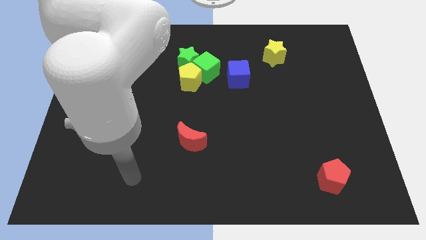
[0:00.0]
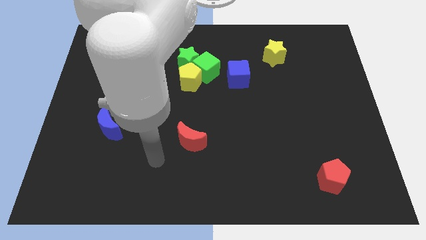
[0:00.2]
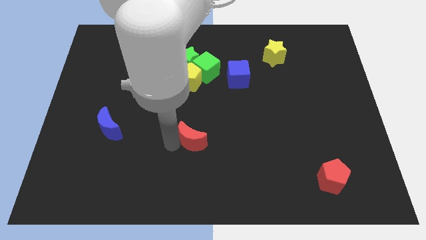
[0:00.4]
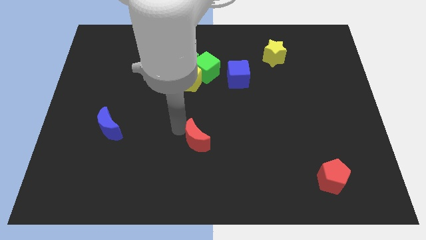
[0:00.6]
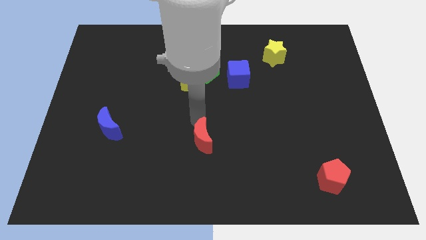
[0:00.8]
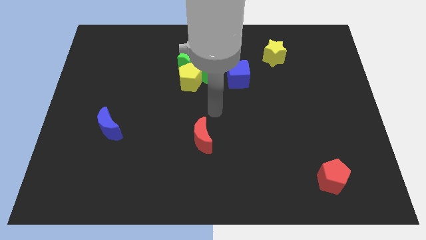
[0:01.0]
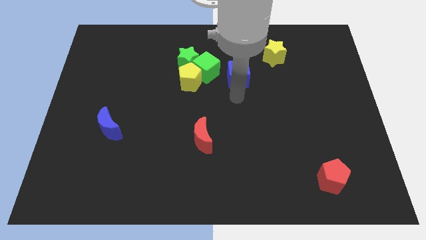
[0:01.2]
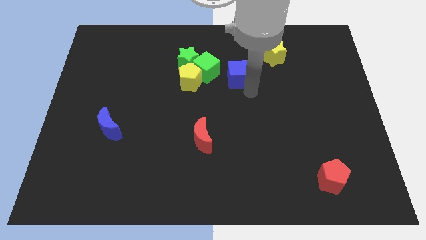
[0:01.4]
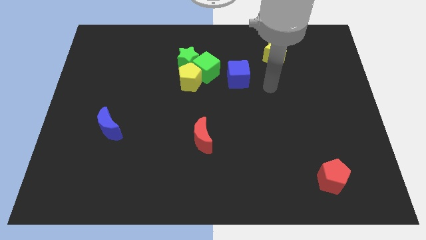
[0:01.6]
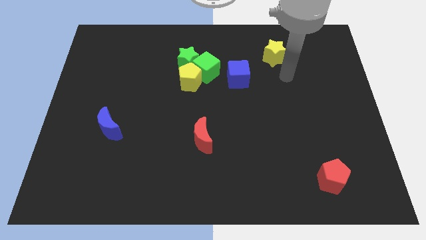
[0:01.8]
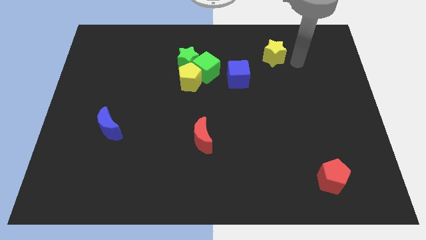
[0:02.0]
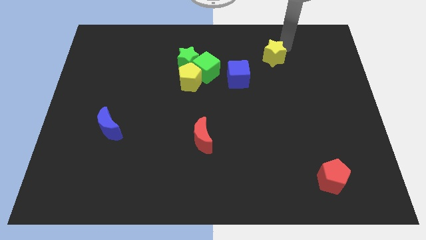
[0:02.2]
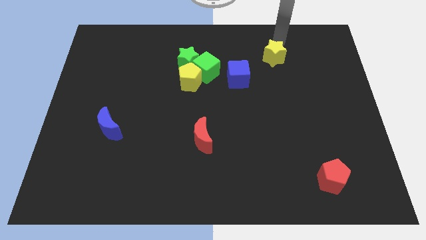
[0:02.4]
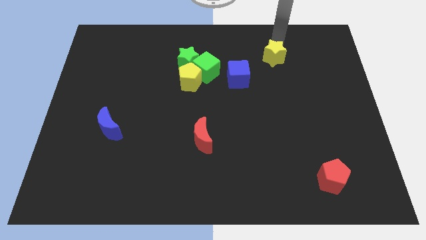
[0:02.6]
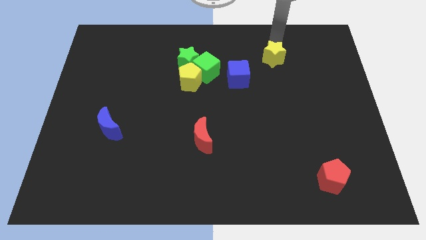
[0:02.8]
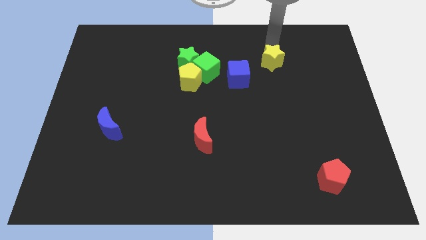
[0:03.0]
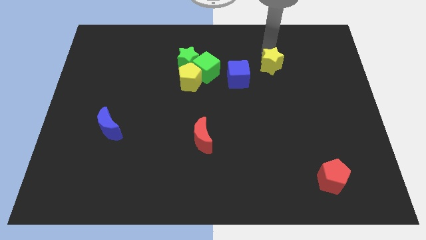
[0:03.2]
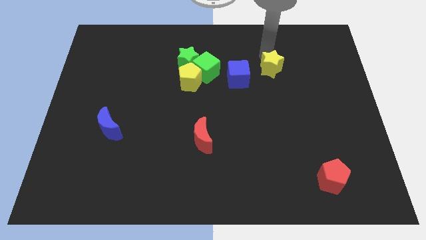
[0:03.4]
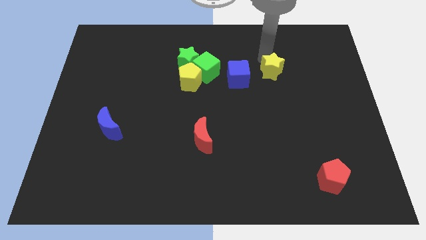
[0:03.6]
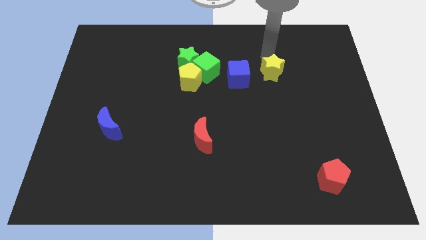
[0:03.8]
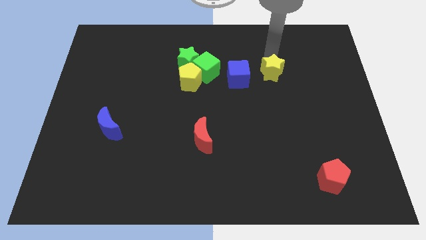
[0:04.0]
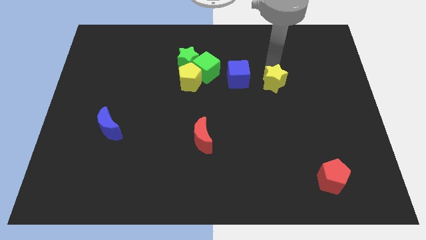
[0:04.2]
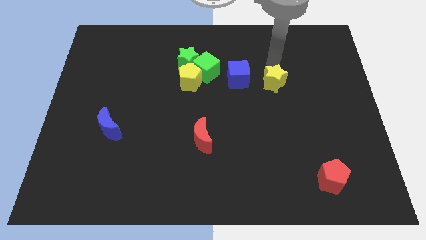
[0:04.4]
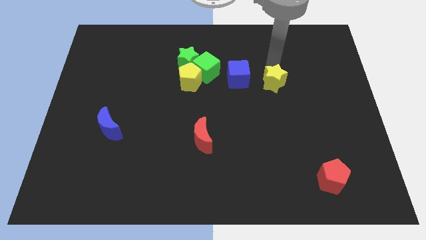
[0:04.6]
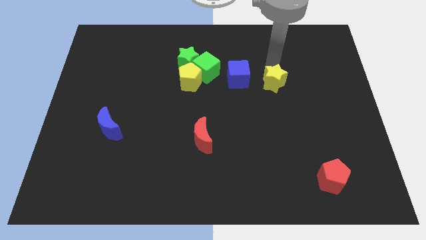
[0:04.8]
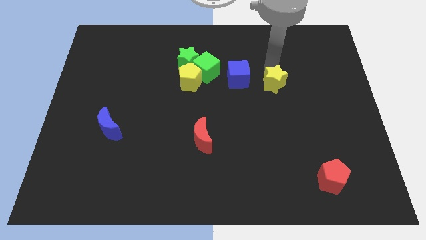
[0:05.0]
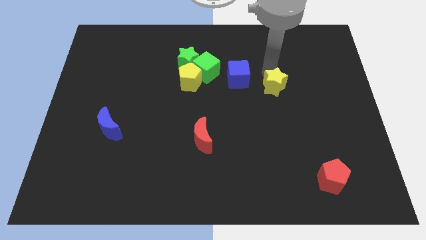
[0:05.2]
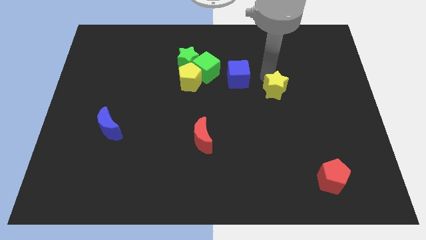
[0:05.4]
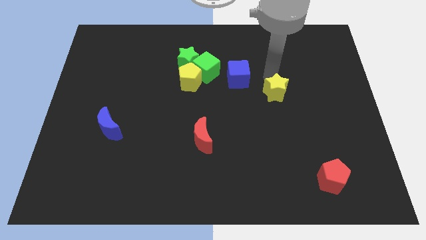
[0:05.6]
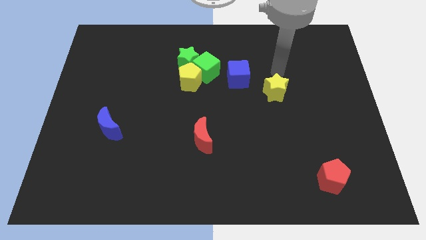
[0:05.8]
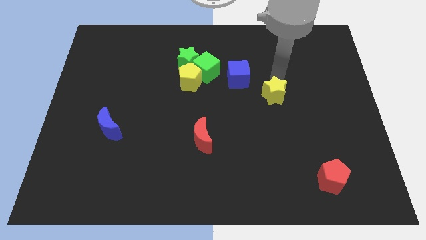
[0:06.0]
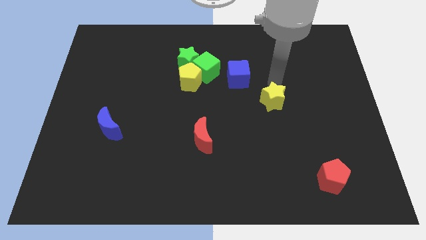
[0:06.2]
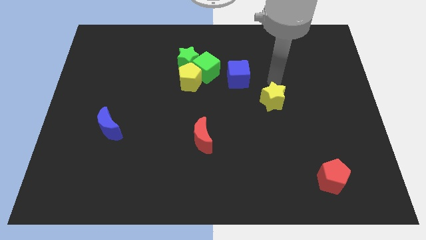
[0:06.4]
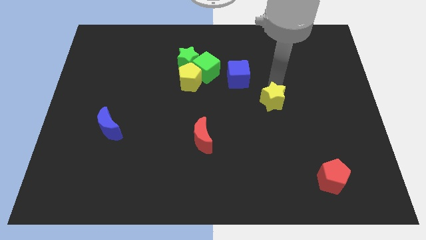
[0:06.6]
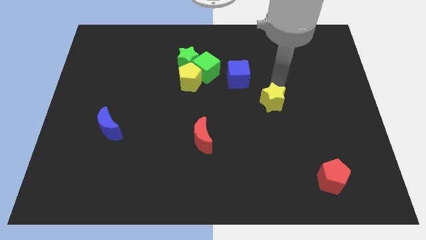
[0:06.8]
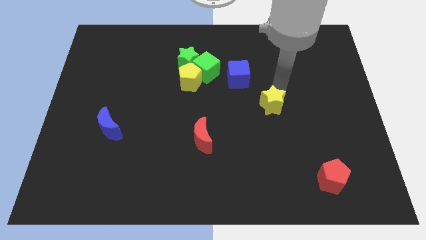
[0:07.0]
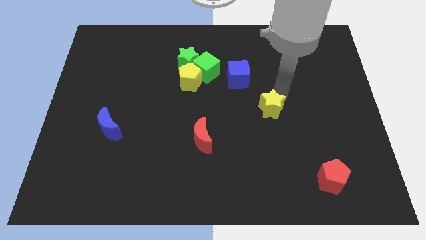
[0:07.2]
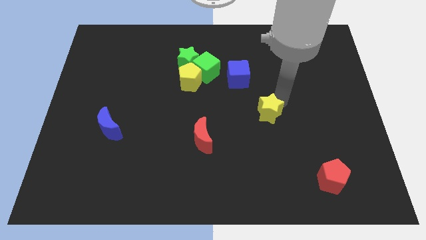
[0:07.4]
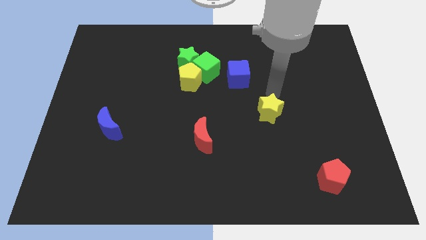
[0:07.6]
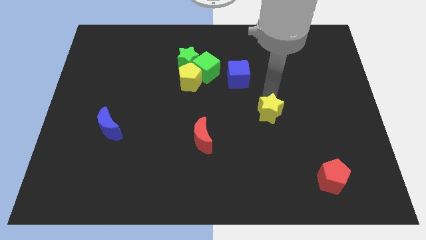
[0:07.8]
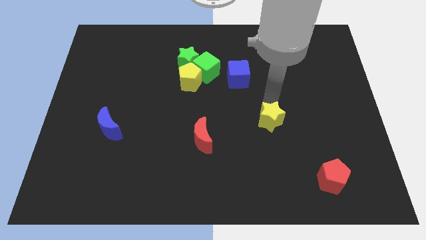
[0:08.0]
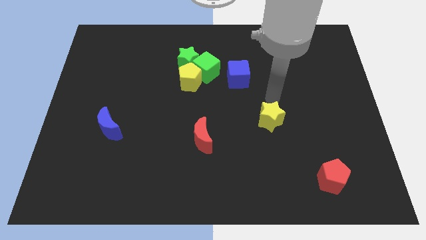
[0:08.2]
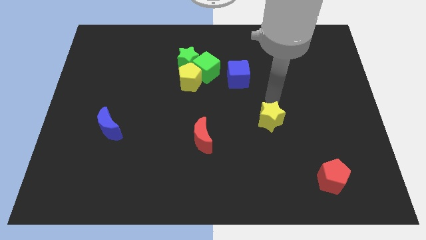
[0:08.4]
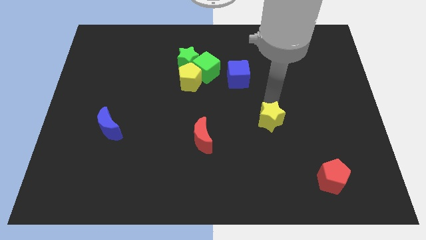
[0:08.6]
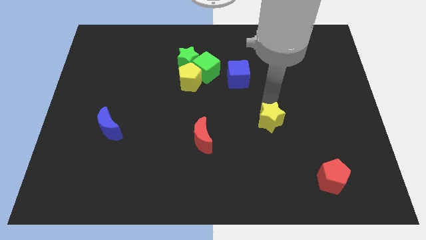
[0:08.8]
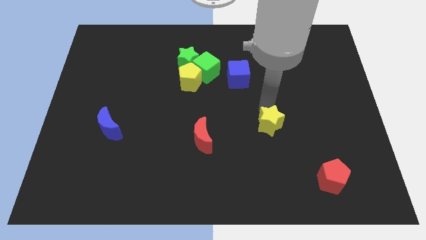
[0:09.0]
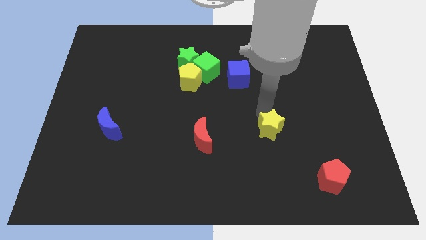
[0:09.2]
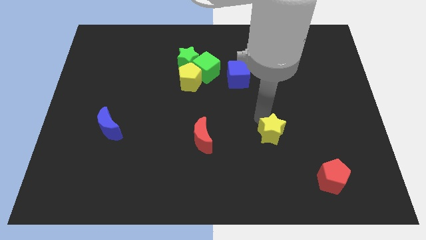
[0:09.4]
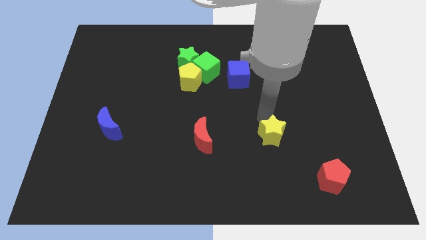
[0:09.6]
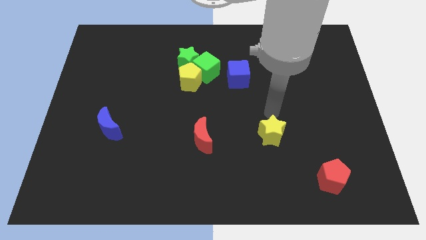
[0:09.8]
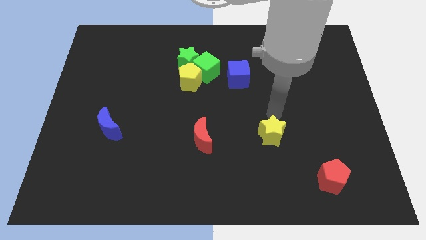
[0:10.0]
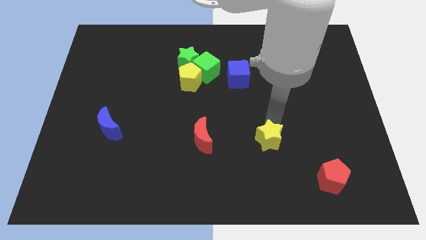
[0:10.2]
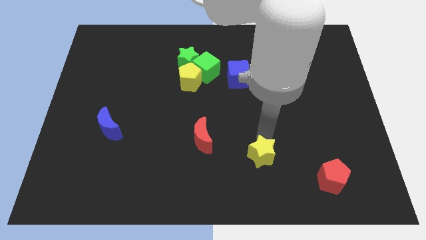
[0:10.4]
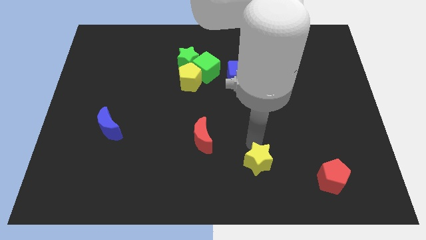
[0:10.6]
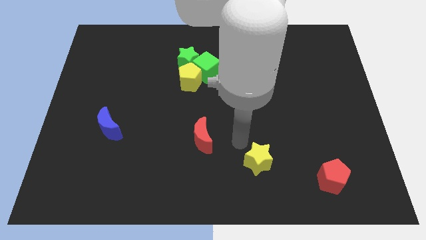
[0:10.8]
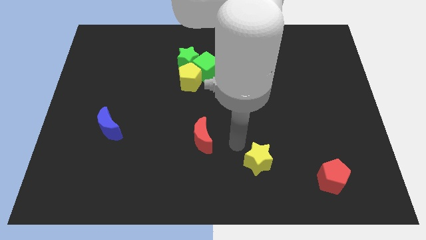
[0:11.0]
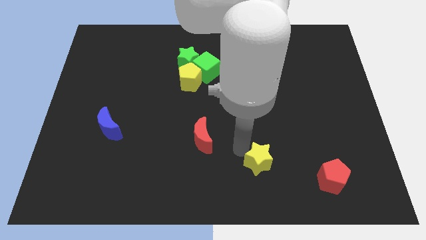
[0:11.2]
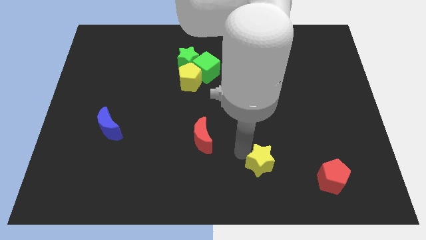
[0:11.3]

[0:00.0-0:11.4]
push the yellow star left of the red pentagon

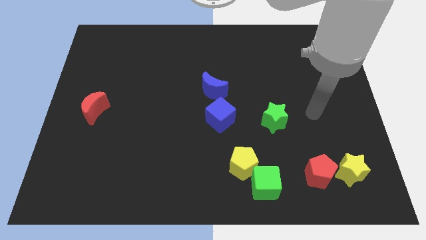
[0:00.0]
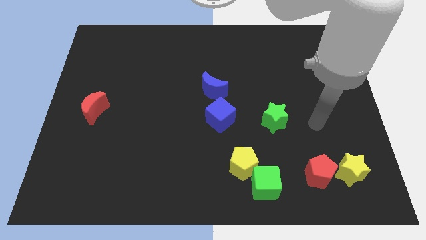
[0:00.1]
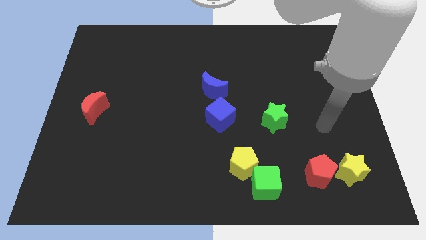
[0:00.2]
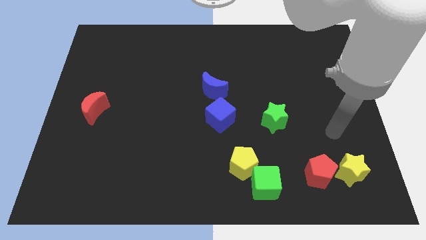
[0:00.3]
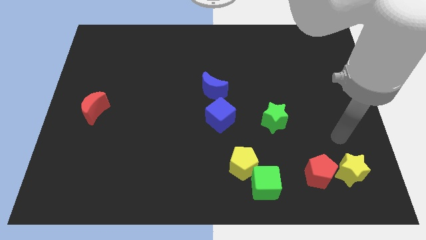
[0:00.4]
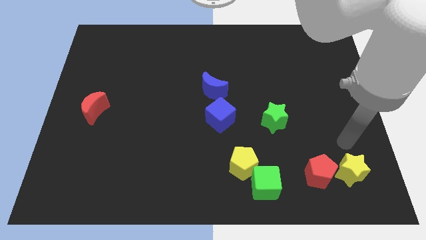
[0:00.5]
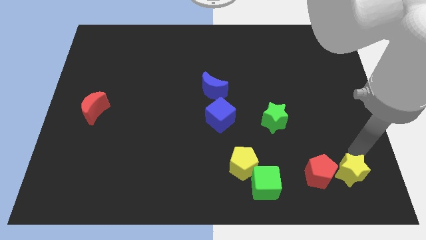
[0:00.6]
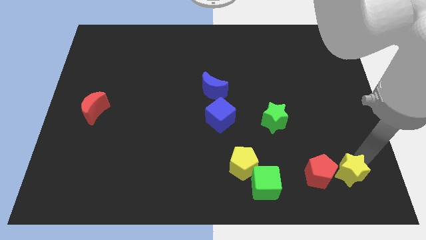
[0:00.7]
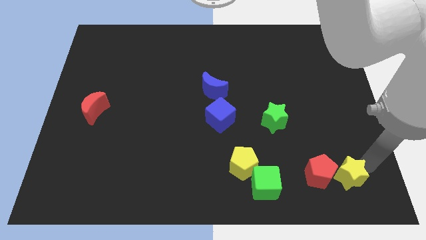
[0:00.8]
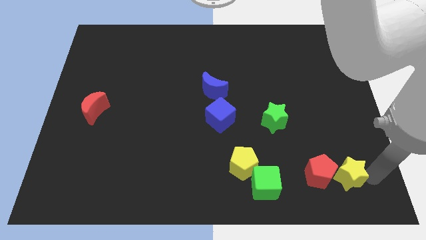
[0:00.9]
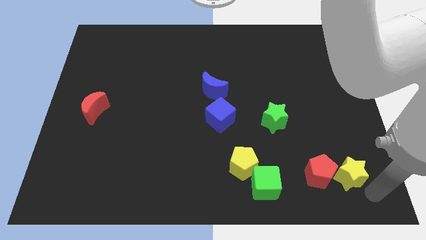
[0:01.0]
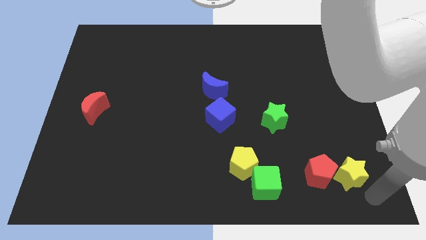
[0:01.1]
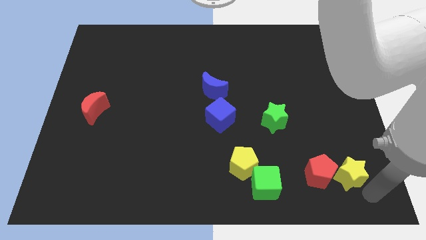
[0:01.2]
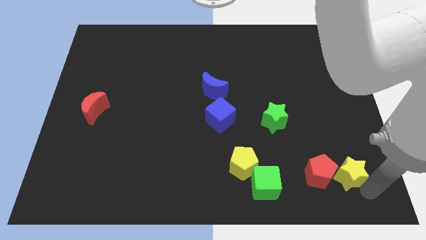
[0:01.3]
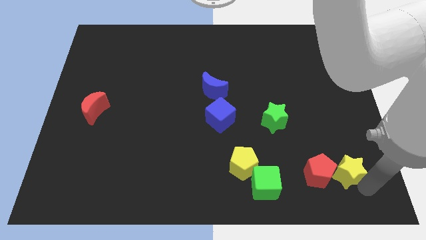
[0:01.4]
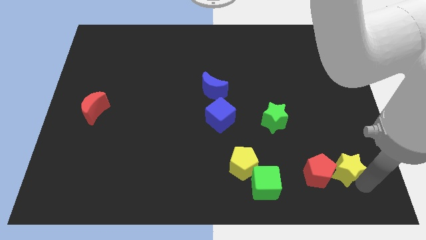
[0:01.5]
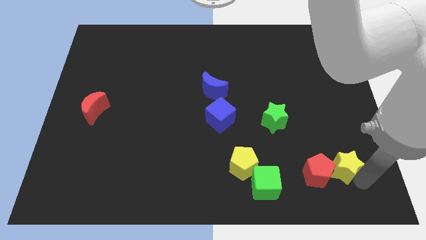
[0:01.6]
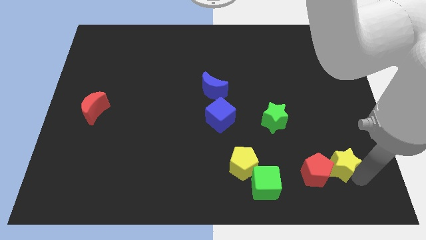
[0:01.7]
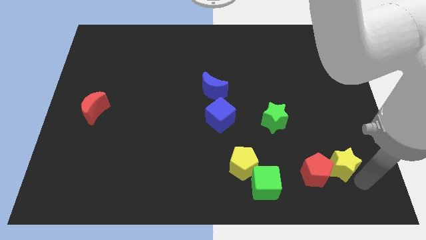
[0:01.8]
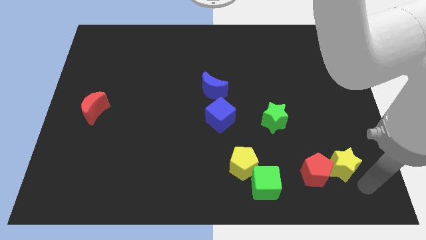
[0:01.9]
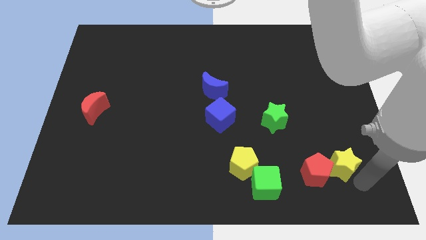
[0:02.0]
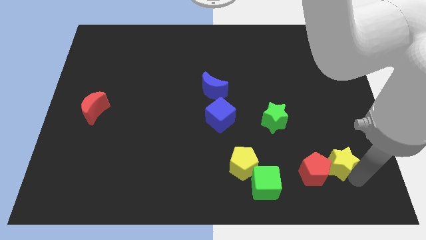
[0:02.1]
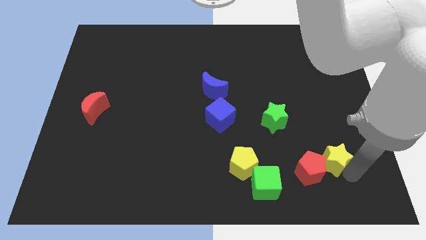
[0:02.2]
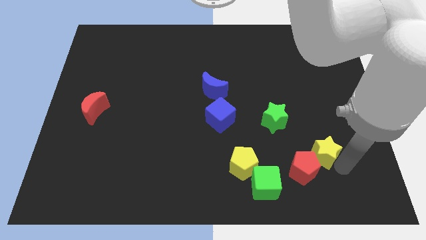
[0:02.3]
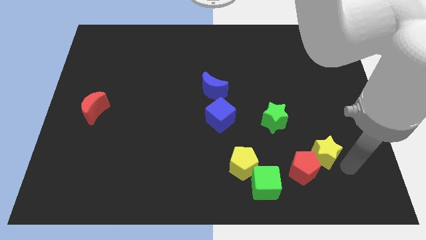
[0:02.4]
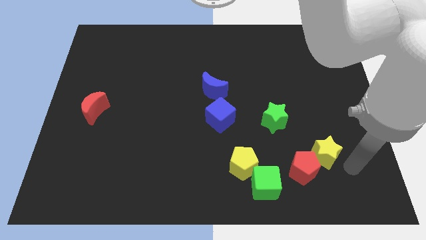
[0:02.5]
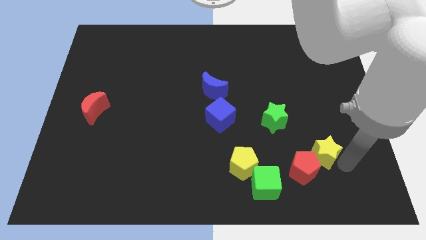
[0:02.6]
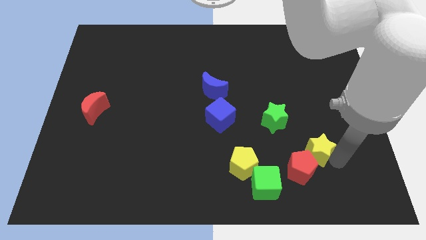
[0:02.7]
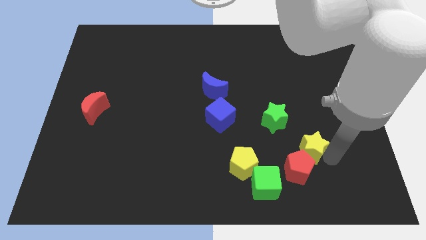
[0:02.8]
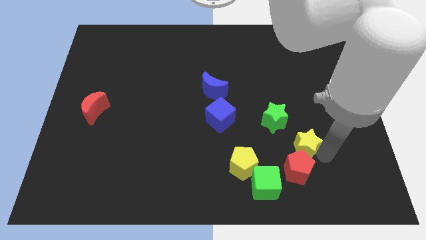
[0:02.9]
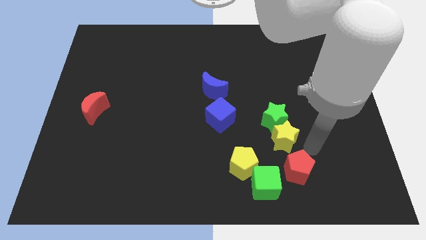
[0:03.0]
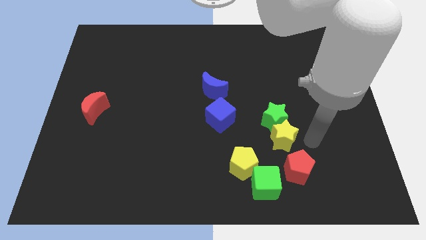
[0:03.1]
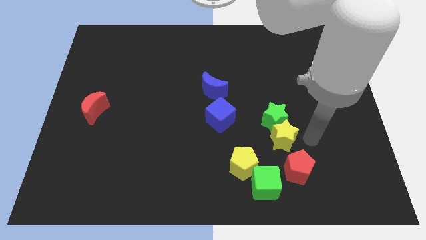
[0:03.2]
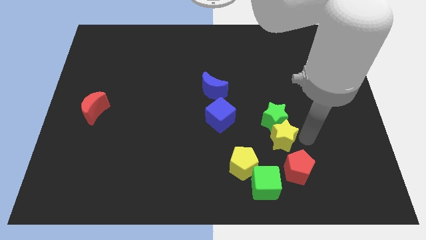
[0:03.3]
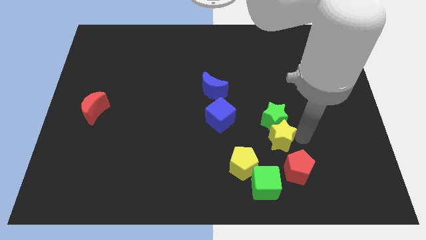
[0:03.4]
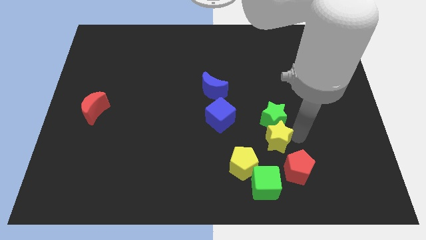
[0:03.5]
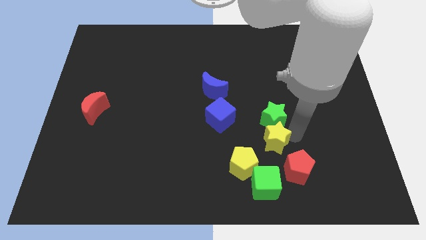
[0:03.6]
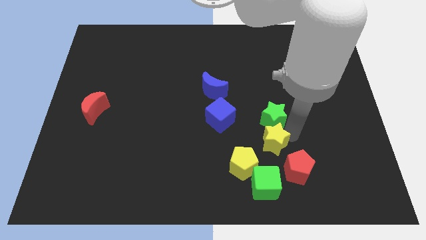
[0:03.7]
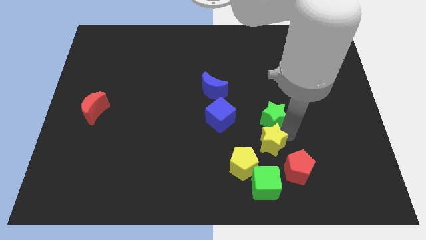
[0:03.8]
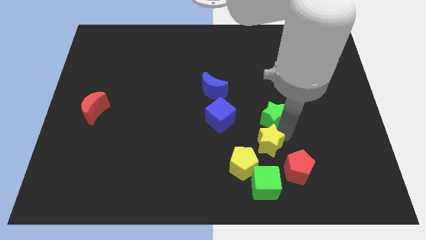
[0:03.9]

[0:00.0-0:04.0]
put the yellow star to the bottom right of the blue cube
